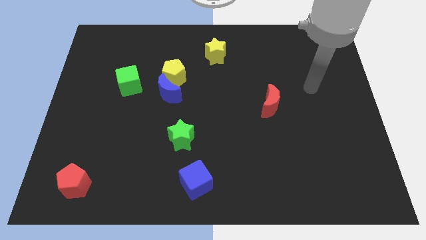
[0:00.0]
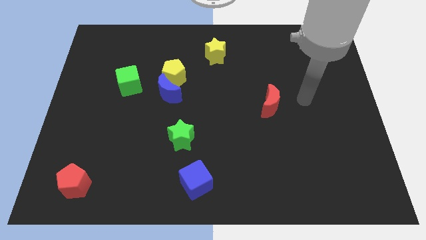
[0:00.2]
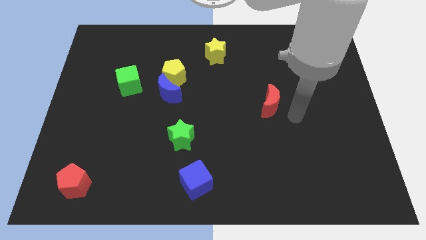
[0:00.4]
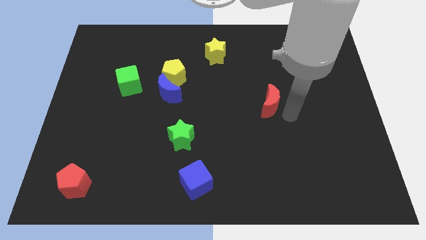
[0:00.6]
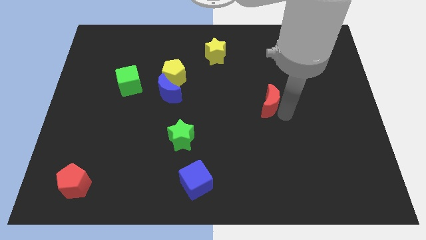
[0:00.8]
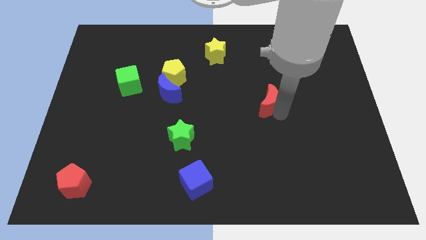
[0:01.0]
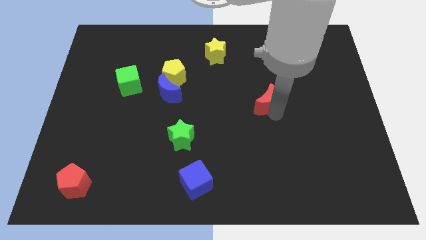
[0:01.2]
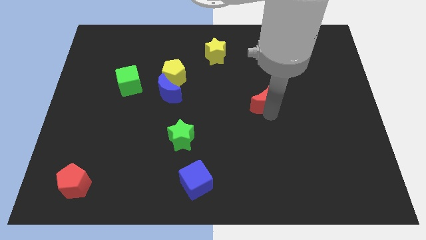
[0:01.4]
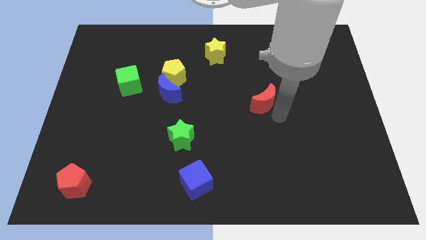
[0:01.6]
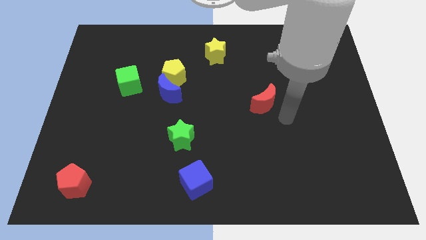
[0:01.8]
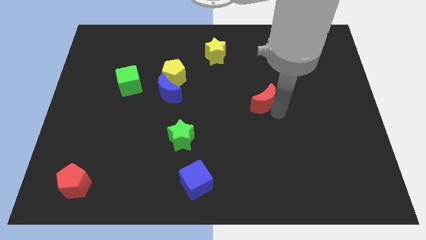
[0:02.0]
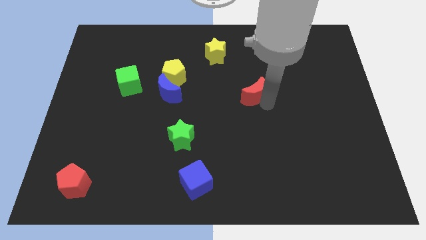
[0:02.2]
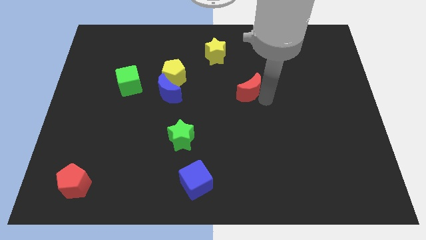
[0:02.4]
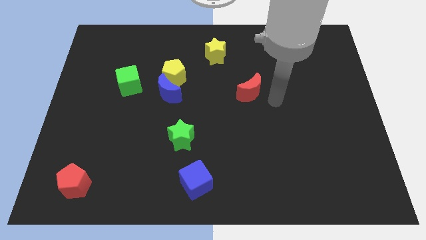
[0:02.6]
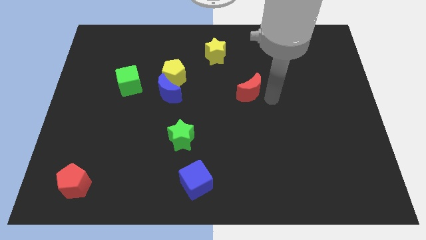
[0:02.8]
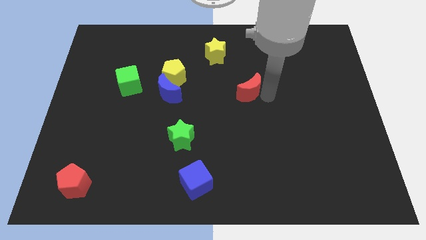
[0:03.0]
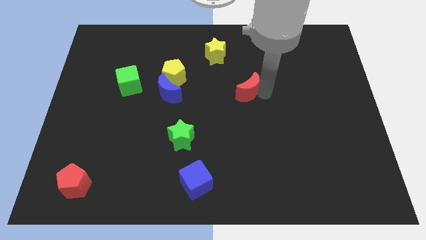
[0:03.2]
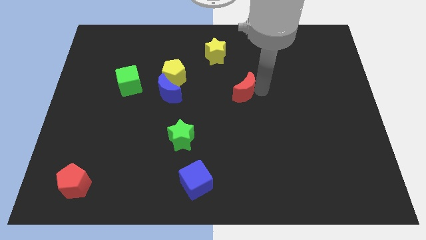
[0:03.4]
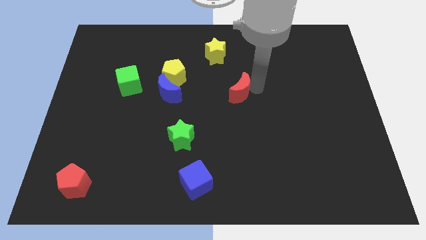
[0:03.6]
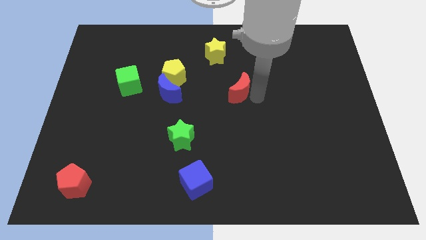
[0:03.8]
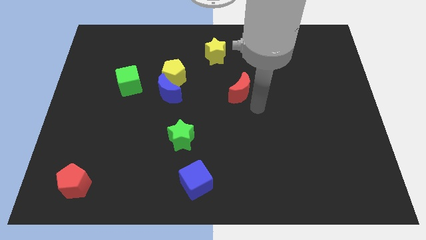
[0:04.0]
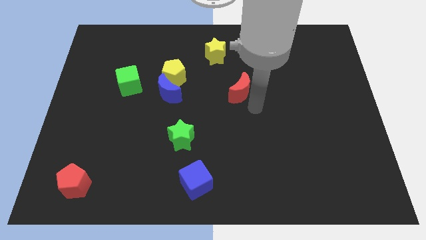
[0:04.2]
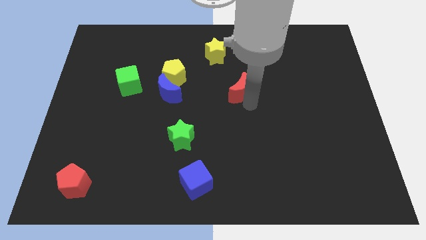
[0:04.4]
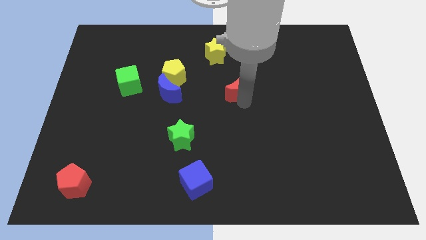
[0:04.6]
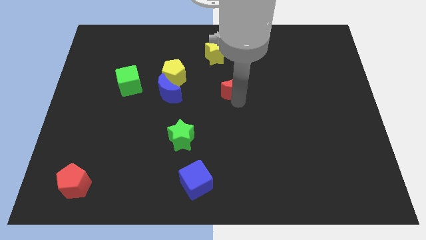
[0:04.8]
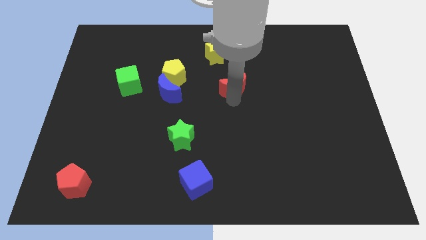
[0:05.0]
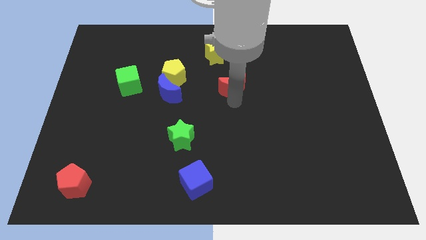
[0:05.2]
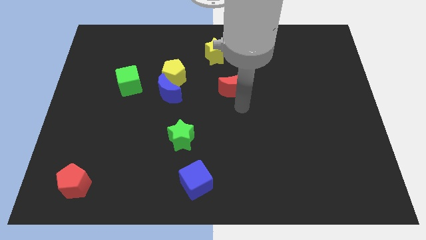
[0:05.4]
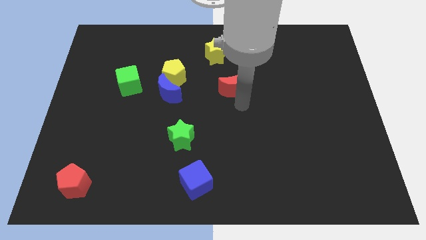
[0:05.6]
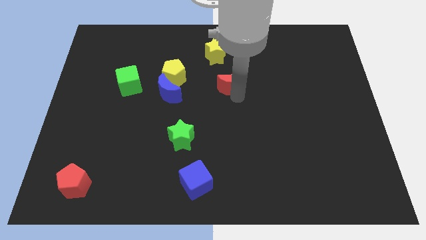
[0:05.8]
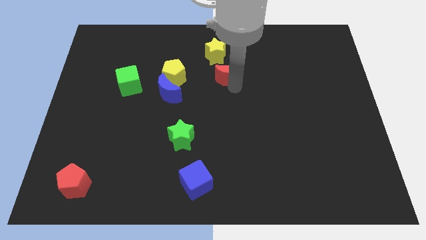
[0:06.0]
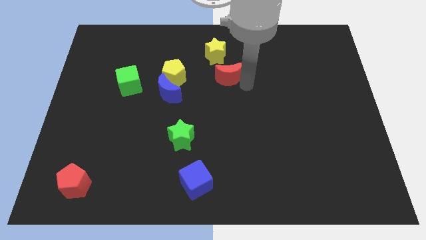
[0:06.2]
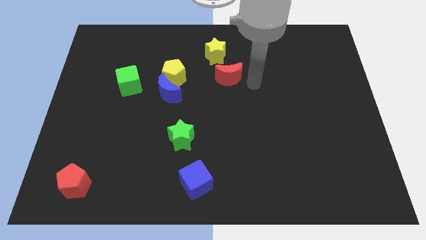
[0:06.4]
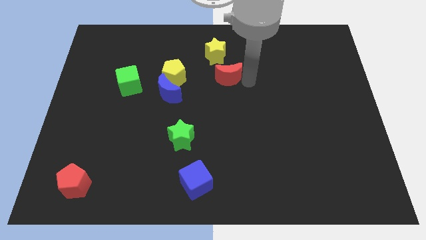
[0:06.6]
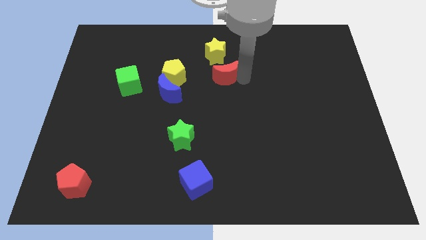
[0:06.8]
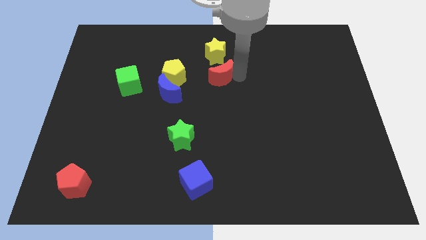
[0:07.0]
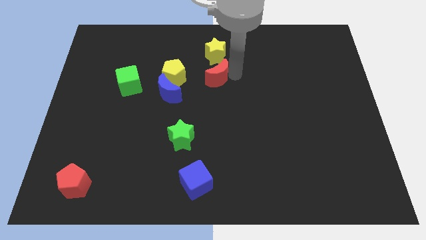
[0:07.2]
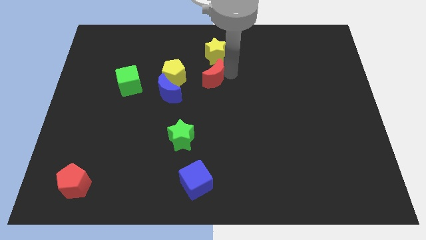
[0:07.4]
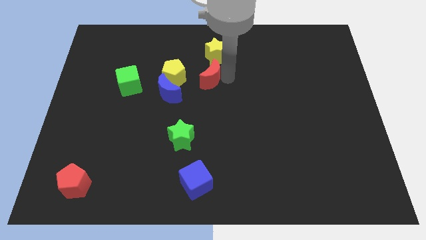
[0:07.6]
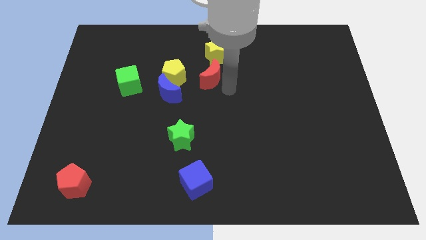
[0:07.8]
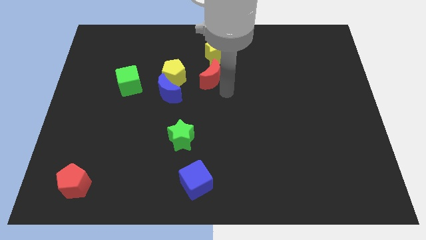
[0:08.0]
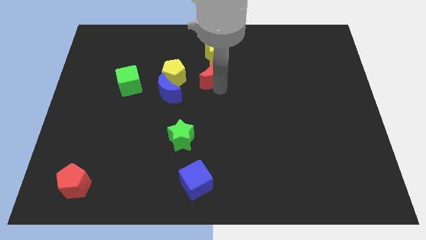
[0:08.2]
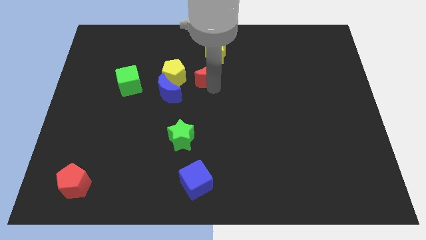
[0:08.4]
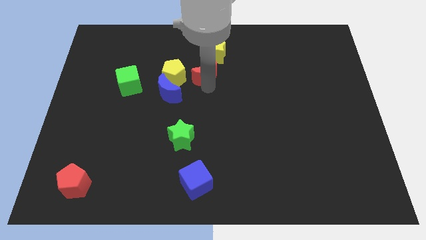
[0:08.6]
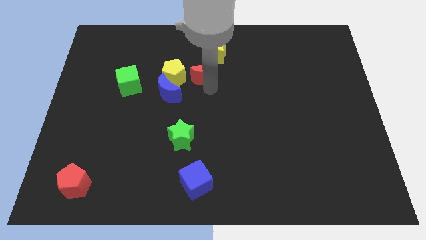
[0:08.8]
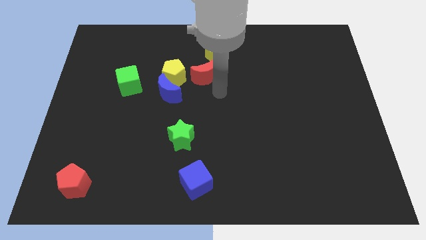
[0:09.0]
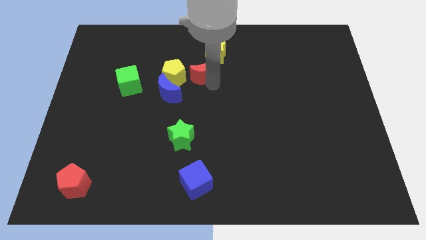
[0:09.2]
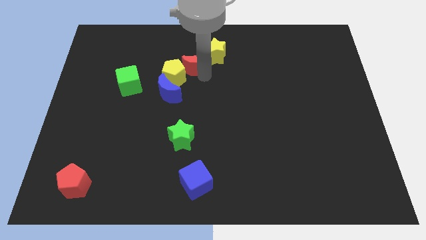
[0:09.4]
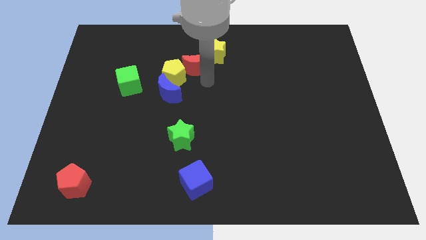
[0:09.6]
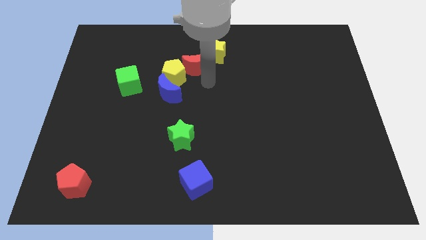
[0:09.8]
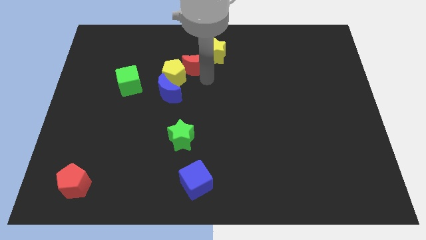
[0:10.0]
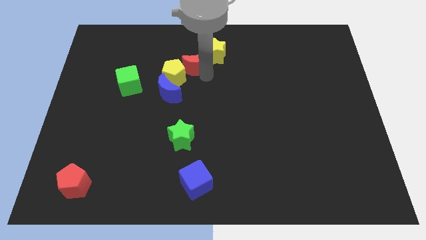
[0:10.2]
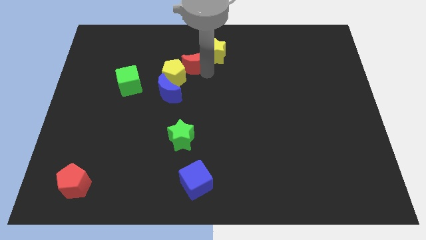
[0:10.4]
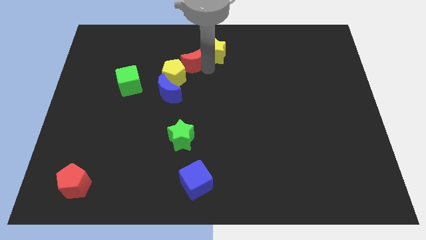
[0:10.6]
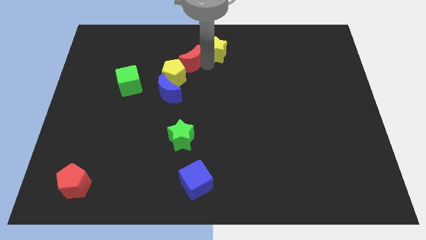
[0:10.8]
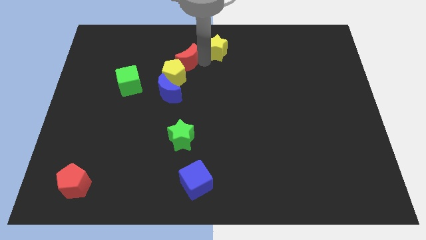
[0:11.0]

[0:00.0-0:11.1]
move the red moon to the top side of the blue moon

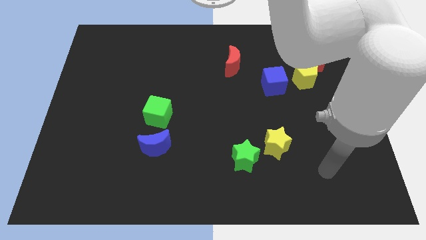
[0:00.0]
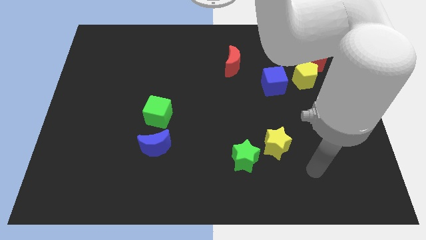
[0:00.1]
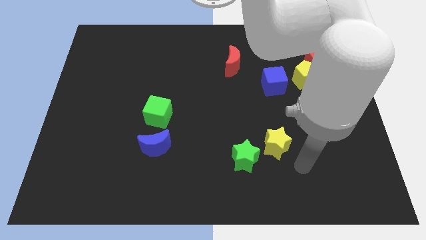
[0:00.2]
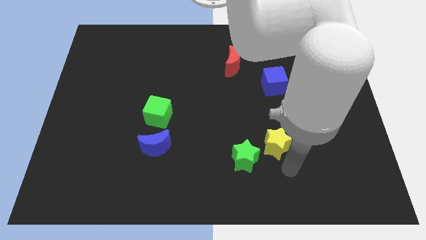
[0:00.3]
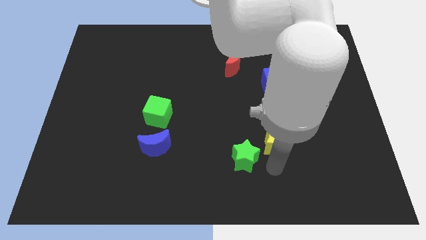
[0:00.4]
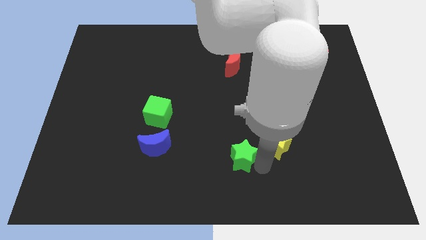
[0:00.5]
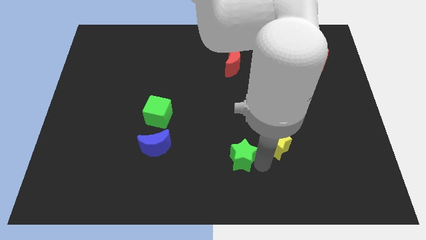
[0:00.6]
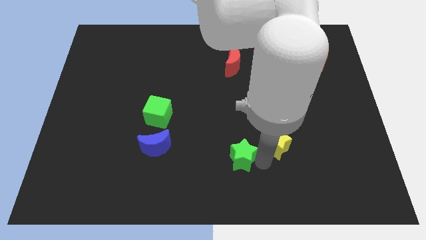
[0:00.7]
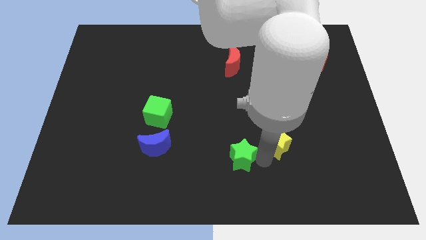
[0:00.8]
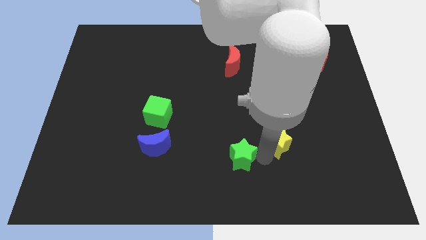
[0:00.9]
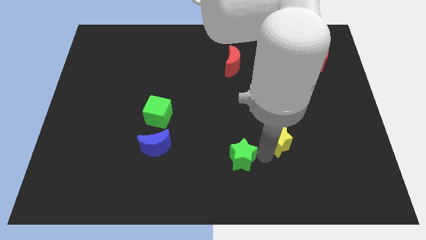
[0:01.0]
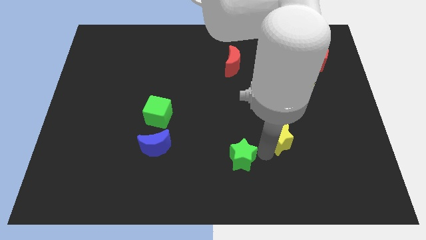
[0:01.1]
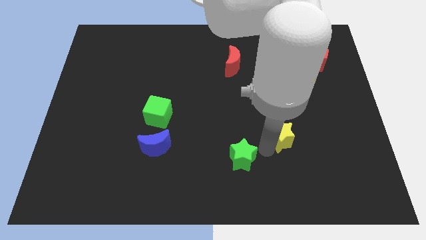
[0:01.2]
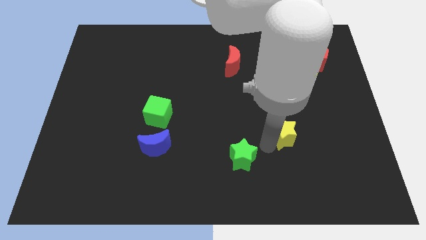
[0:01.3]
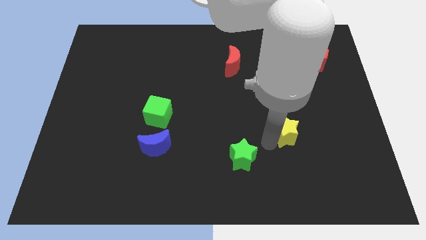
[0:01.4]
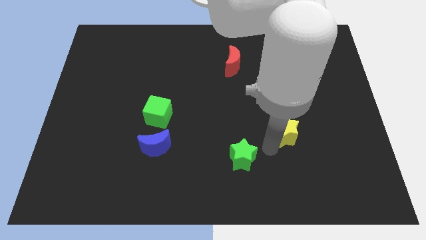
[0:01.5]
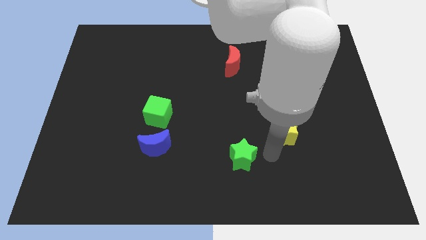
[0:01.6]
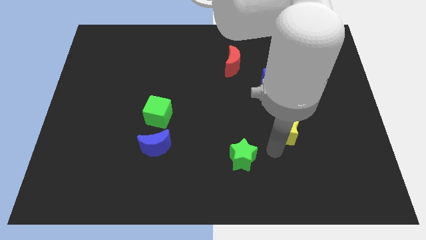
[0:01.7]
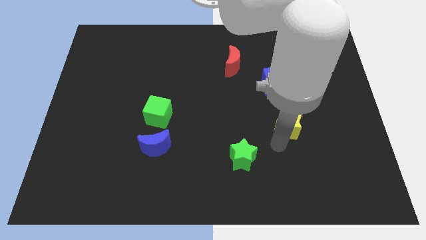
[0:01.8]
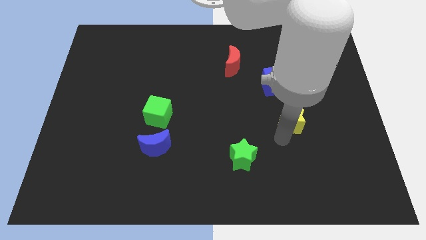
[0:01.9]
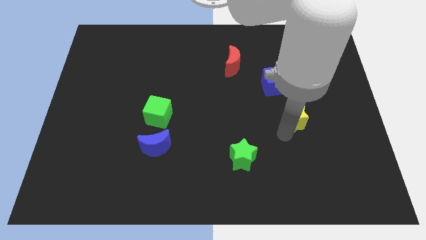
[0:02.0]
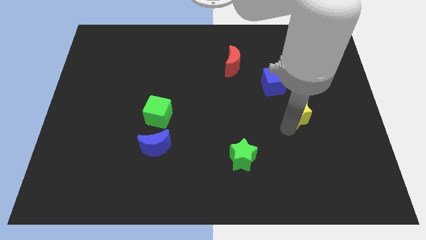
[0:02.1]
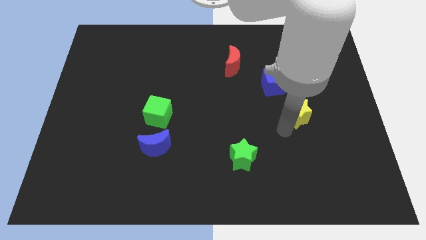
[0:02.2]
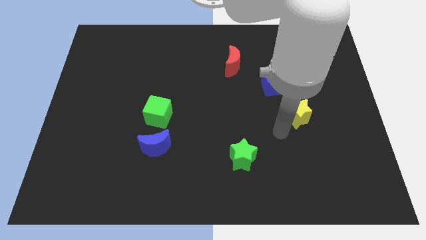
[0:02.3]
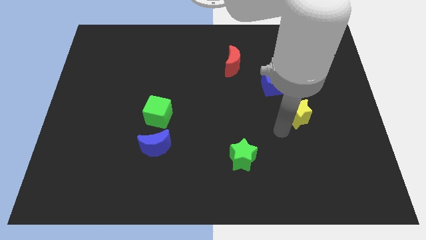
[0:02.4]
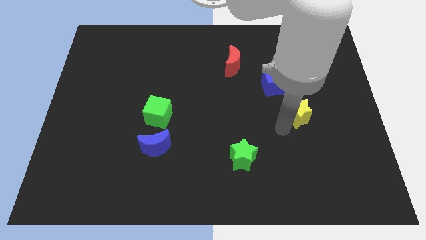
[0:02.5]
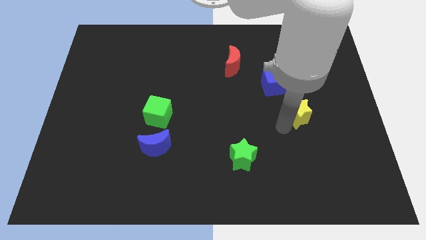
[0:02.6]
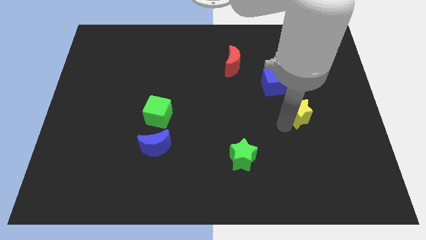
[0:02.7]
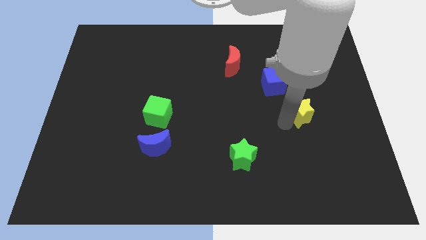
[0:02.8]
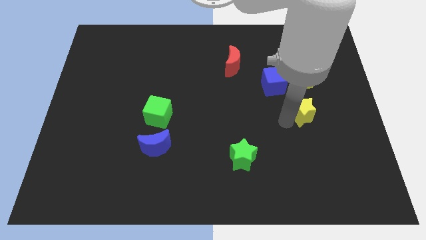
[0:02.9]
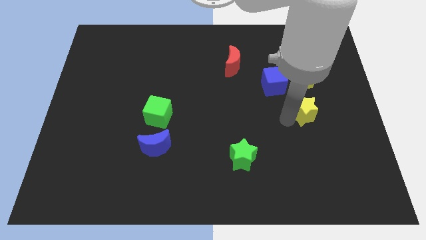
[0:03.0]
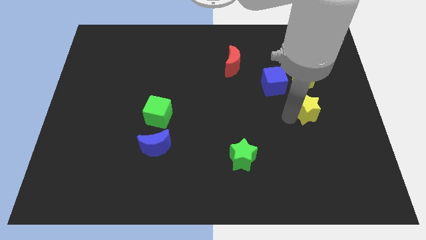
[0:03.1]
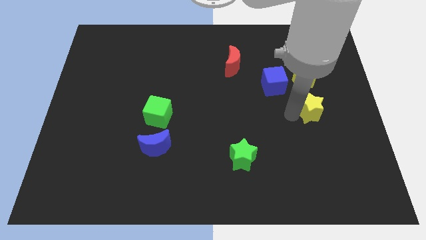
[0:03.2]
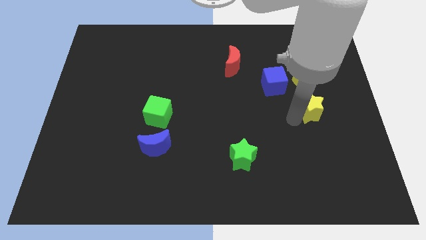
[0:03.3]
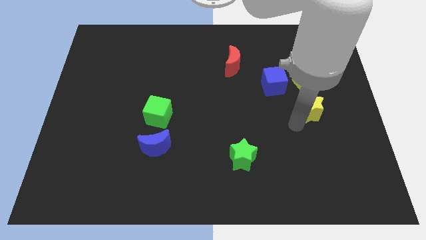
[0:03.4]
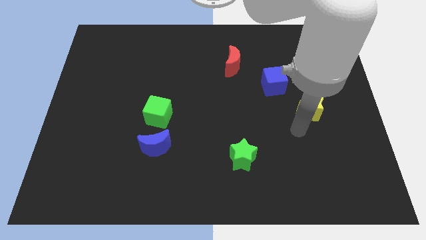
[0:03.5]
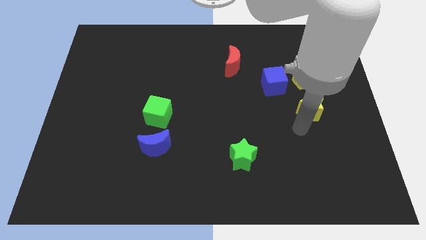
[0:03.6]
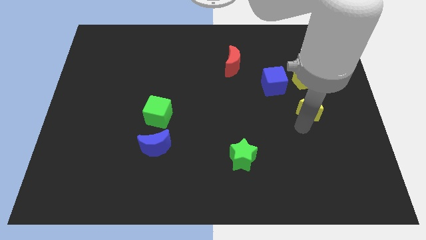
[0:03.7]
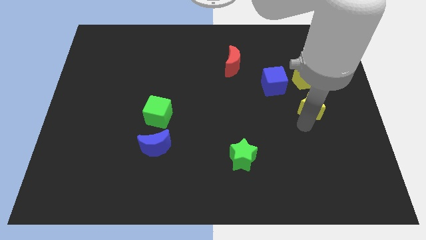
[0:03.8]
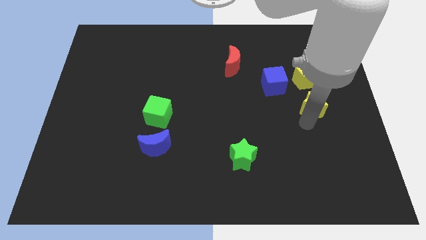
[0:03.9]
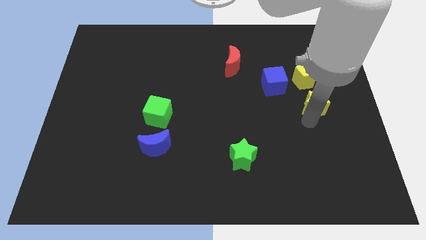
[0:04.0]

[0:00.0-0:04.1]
slide the yellow star to the bottom side of the red pentagon
